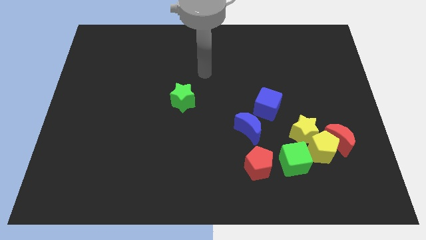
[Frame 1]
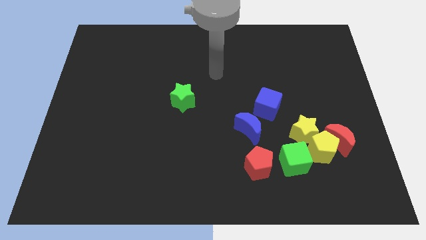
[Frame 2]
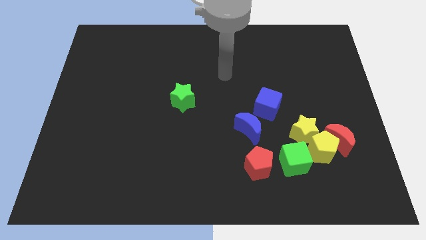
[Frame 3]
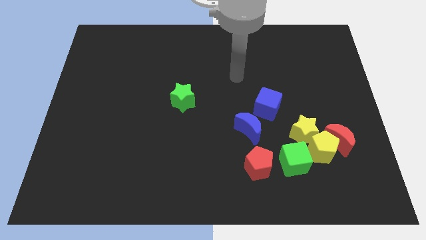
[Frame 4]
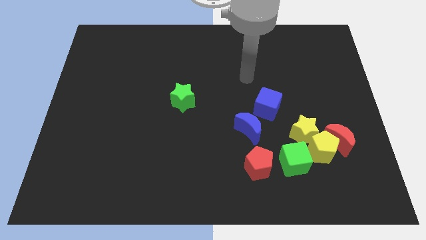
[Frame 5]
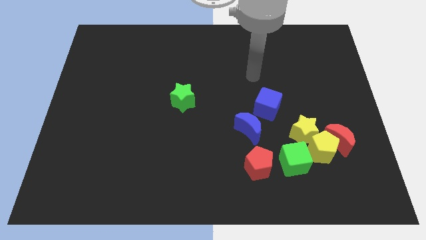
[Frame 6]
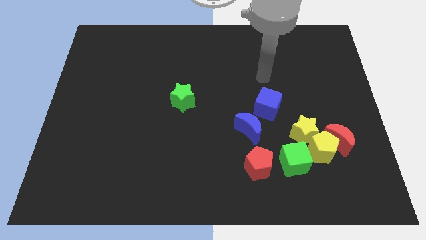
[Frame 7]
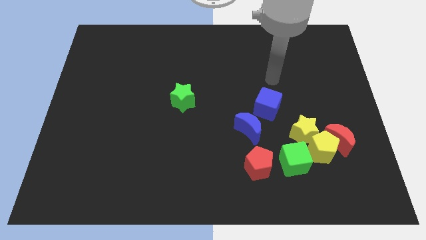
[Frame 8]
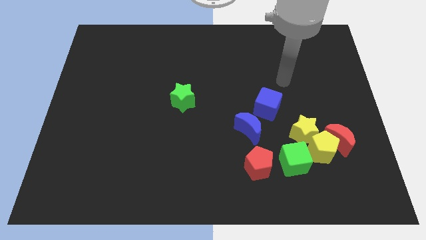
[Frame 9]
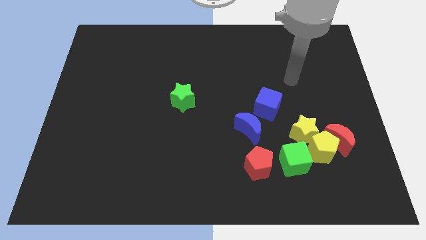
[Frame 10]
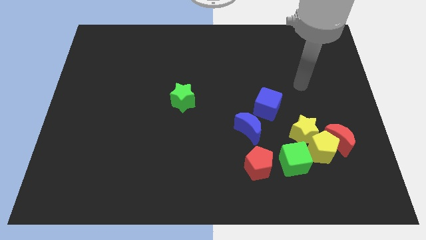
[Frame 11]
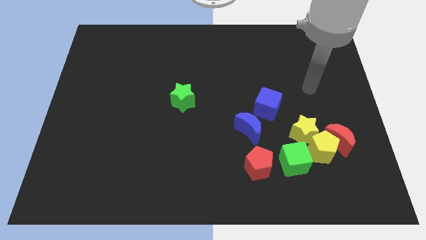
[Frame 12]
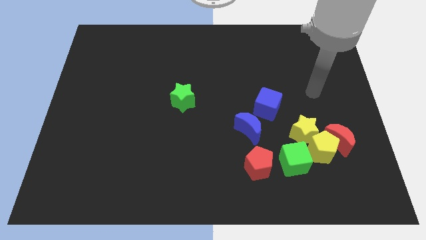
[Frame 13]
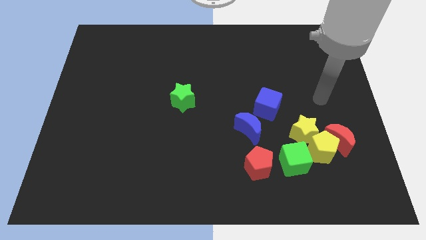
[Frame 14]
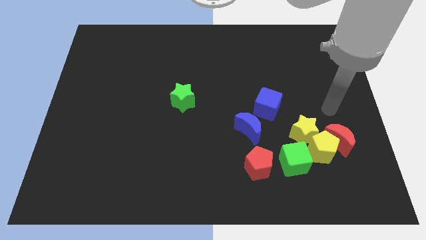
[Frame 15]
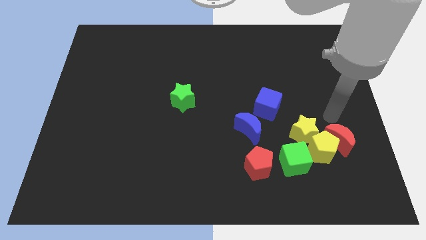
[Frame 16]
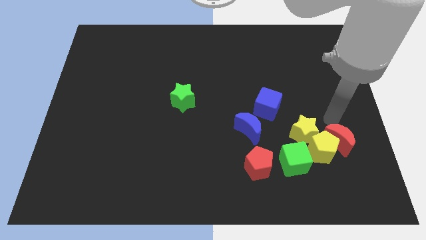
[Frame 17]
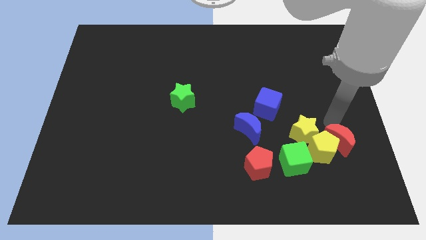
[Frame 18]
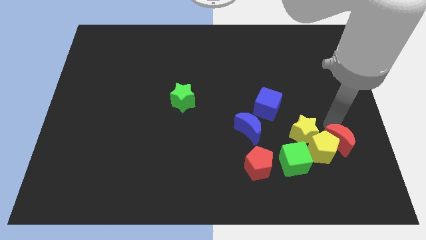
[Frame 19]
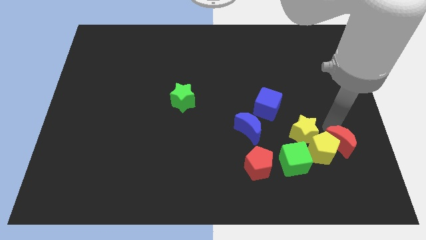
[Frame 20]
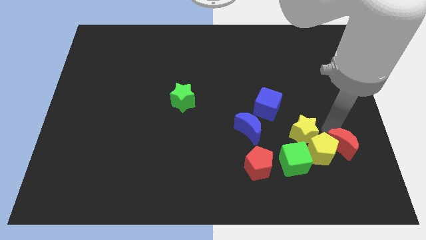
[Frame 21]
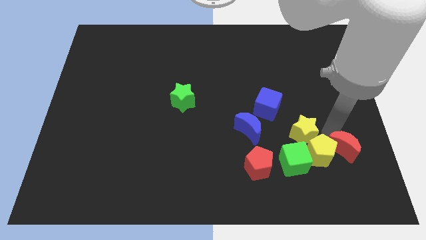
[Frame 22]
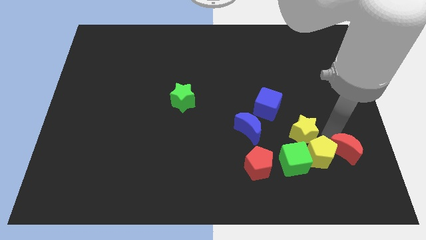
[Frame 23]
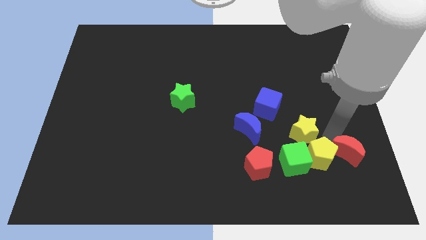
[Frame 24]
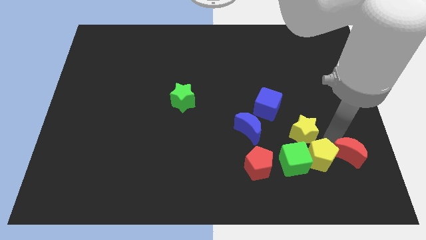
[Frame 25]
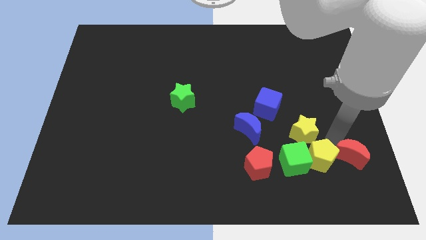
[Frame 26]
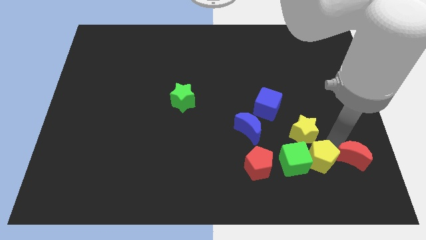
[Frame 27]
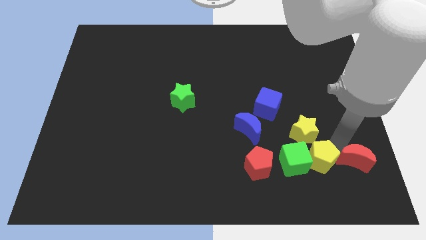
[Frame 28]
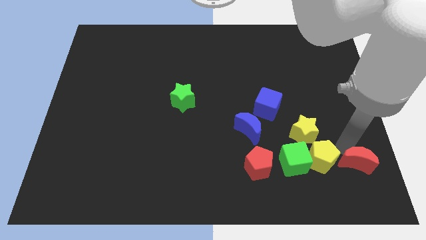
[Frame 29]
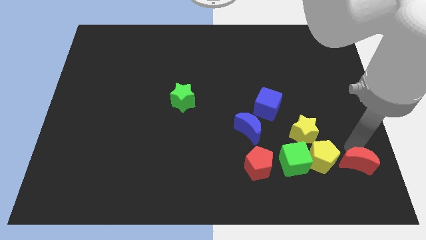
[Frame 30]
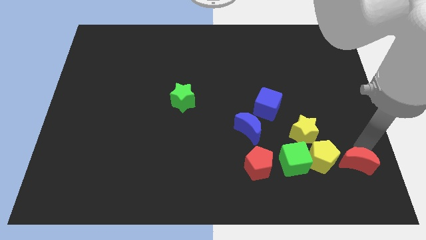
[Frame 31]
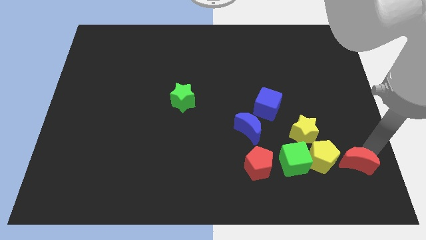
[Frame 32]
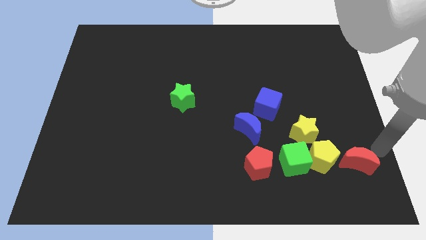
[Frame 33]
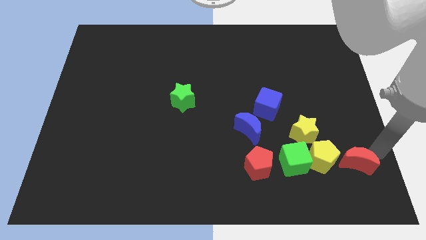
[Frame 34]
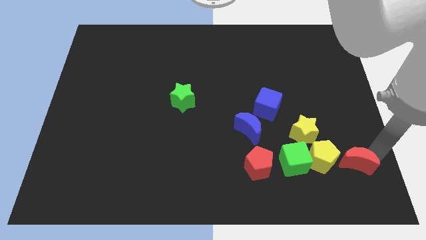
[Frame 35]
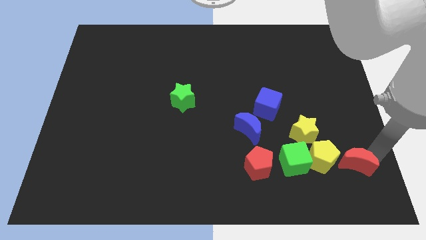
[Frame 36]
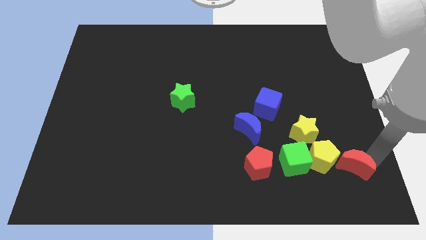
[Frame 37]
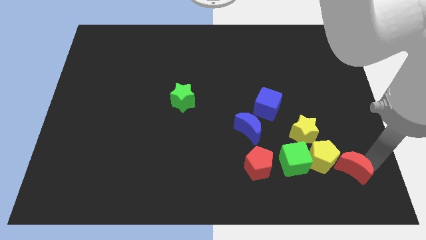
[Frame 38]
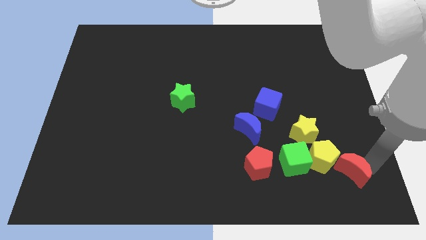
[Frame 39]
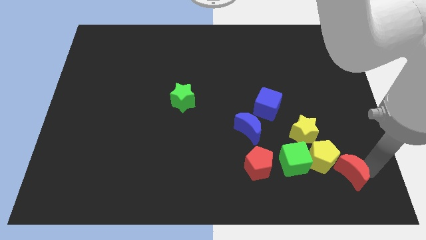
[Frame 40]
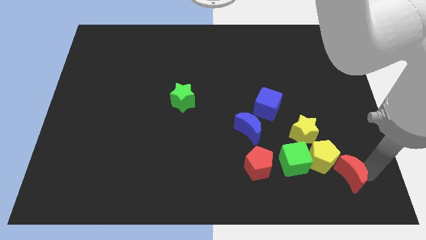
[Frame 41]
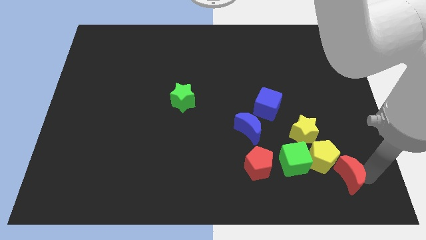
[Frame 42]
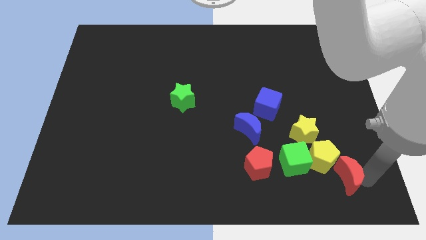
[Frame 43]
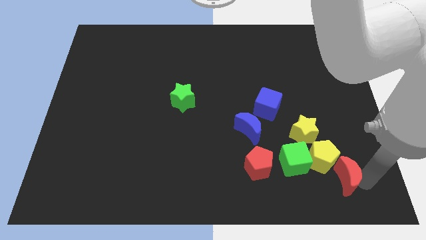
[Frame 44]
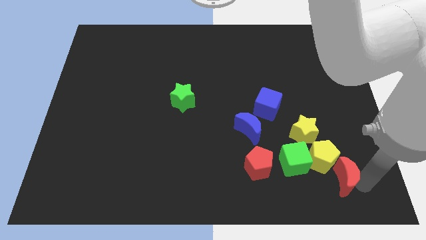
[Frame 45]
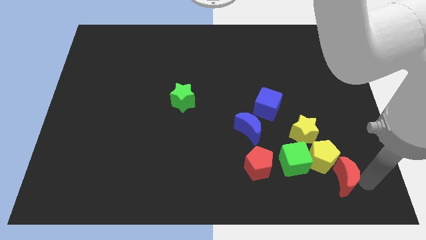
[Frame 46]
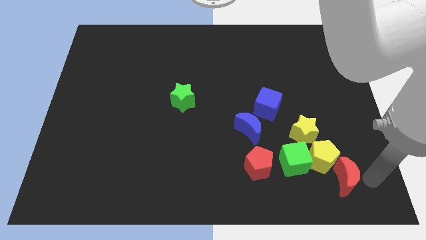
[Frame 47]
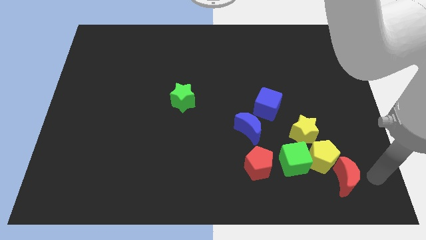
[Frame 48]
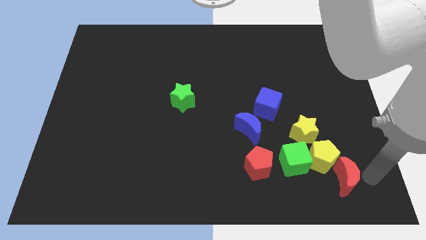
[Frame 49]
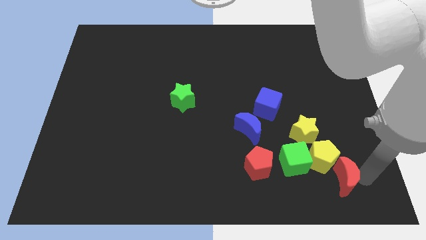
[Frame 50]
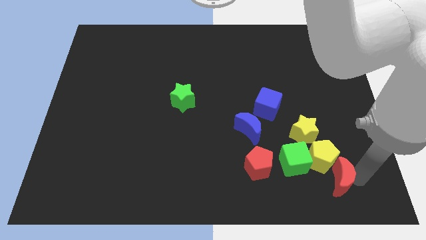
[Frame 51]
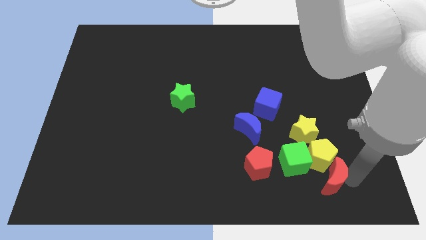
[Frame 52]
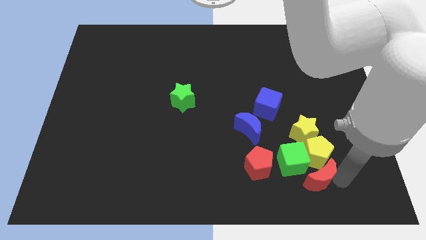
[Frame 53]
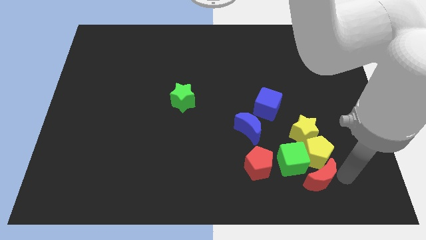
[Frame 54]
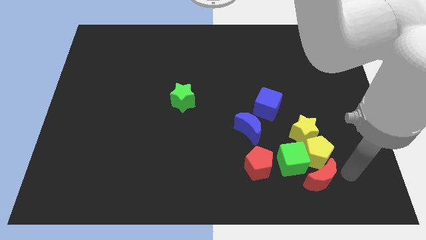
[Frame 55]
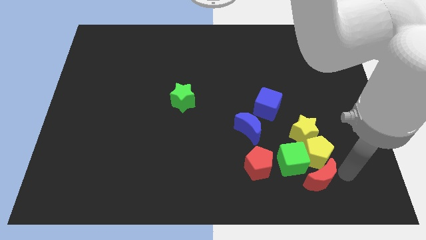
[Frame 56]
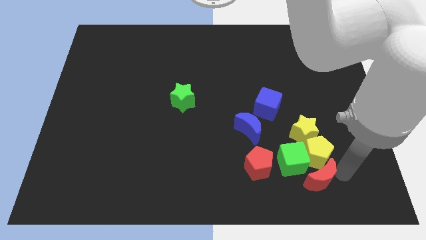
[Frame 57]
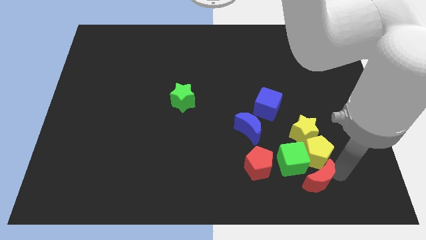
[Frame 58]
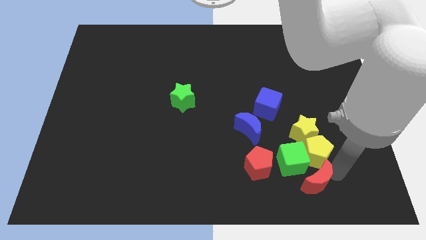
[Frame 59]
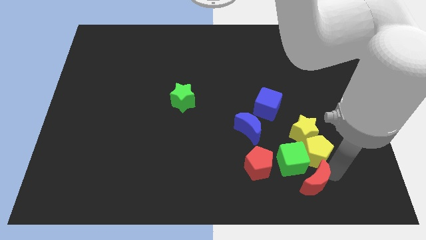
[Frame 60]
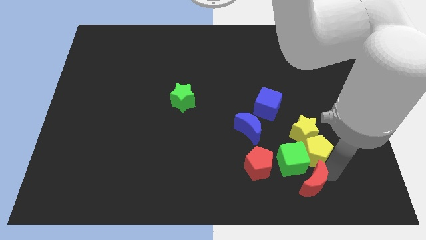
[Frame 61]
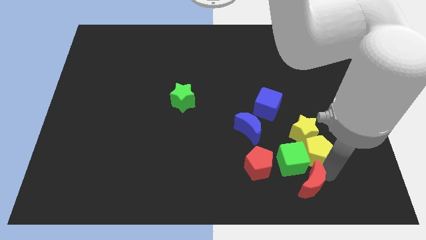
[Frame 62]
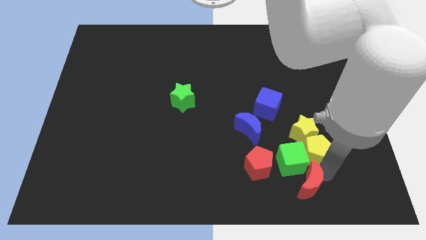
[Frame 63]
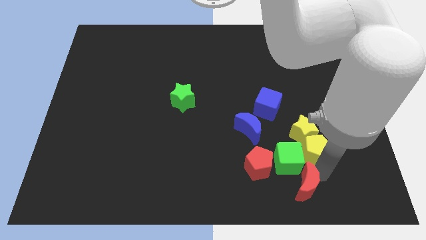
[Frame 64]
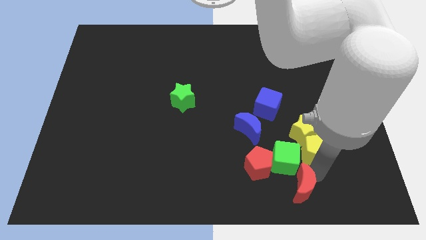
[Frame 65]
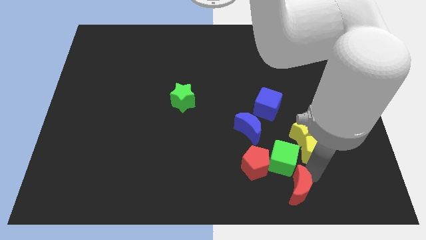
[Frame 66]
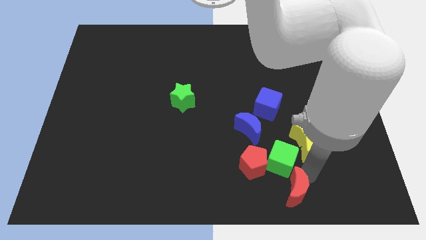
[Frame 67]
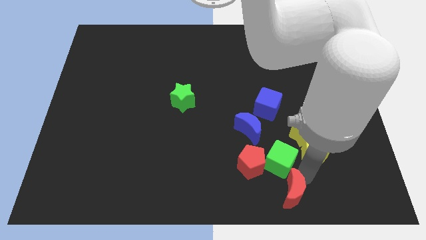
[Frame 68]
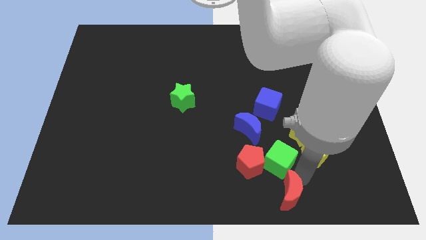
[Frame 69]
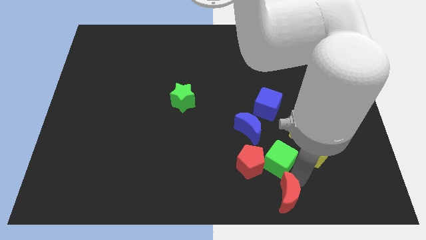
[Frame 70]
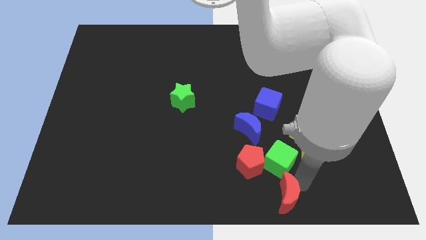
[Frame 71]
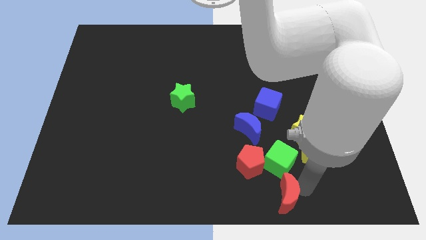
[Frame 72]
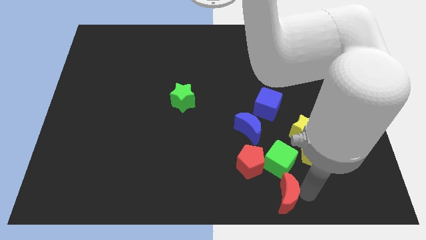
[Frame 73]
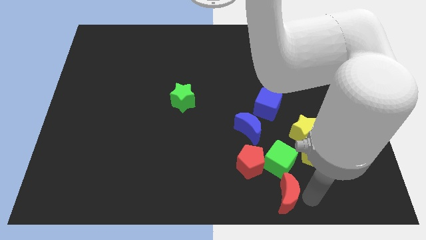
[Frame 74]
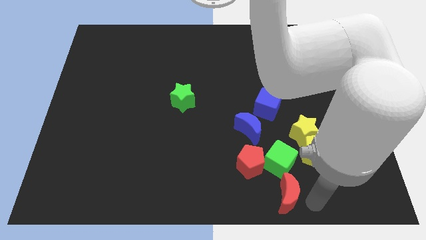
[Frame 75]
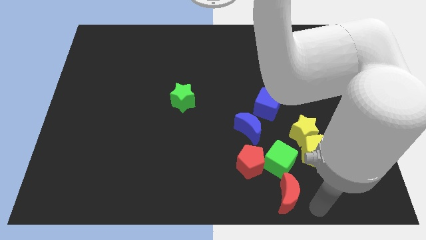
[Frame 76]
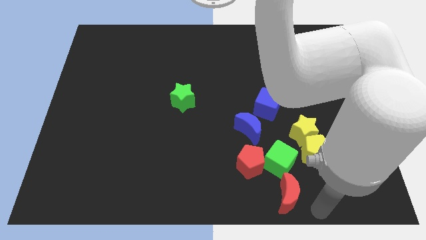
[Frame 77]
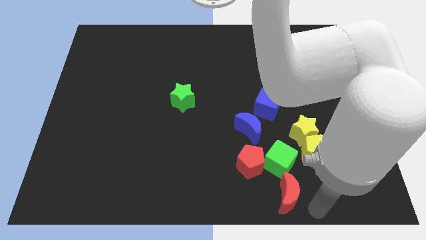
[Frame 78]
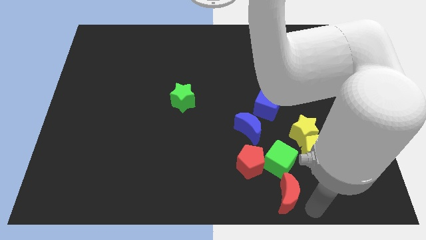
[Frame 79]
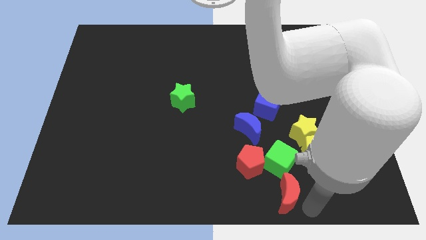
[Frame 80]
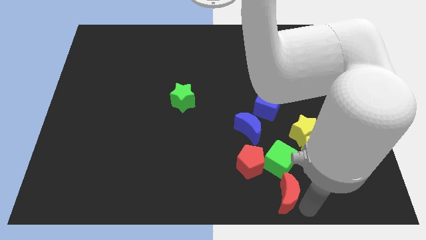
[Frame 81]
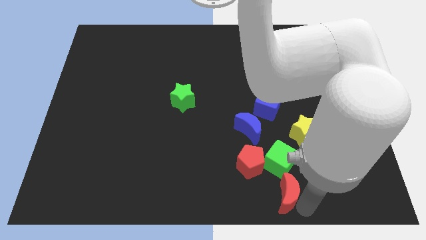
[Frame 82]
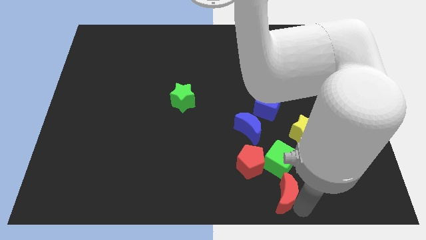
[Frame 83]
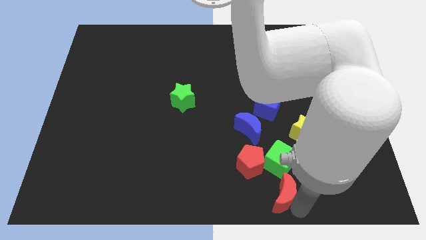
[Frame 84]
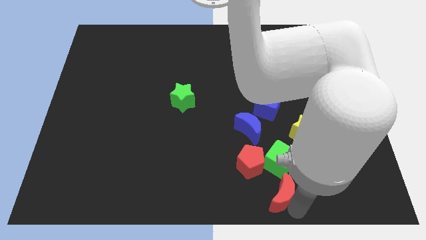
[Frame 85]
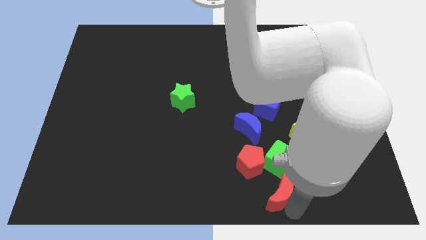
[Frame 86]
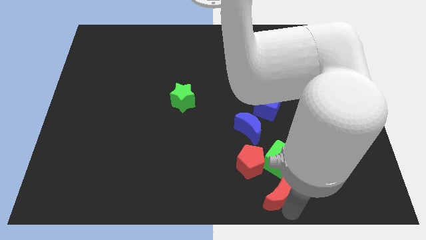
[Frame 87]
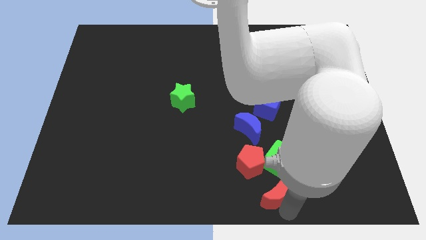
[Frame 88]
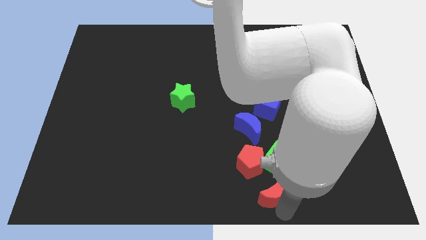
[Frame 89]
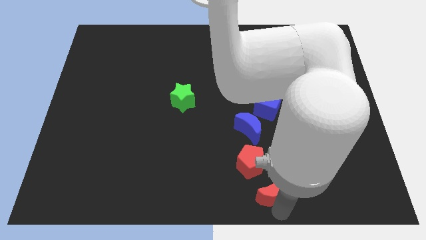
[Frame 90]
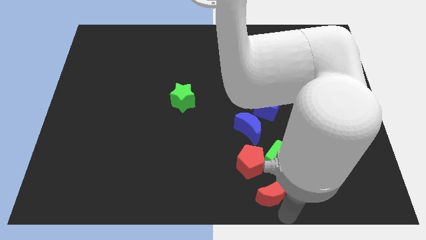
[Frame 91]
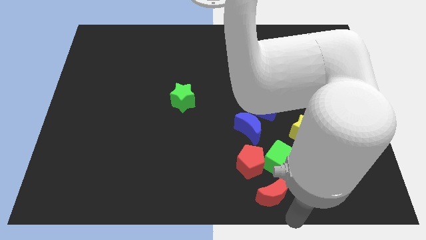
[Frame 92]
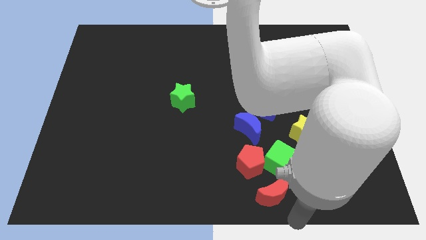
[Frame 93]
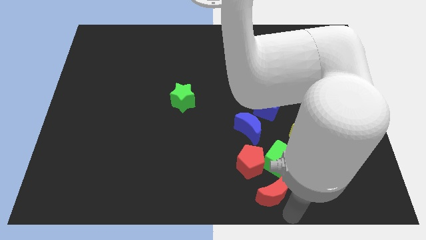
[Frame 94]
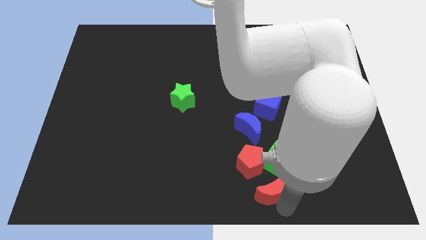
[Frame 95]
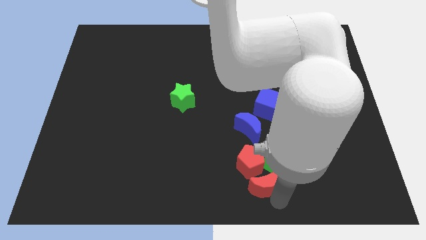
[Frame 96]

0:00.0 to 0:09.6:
put the red moon to the bottom of the blue moon
